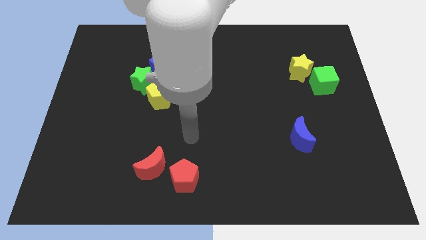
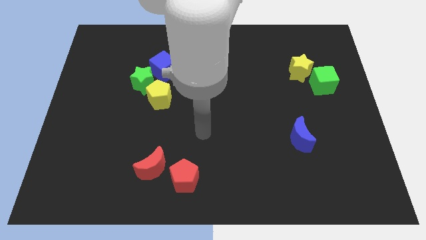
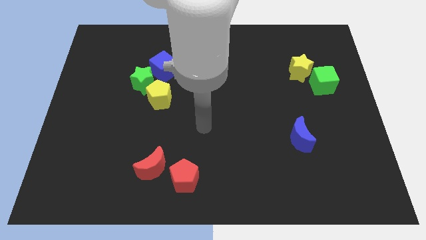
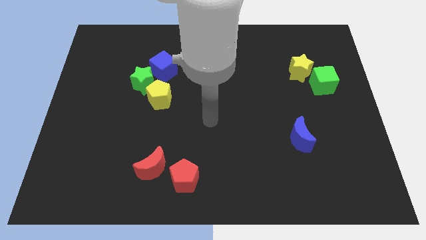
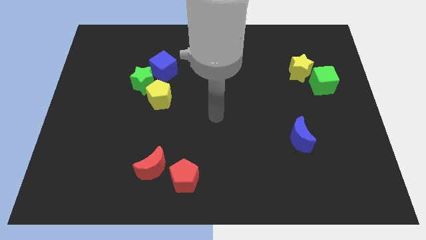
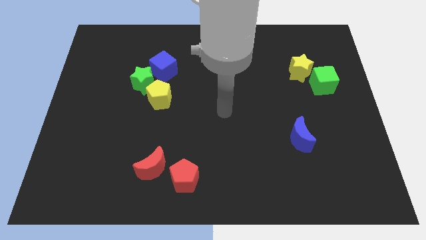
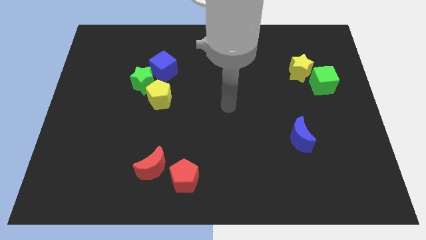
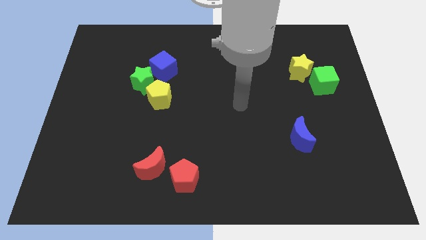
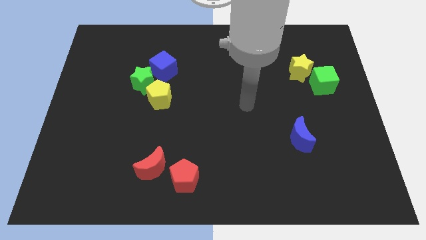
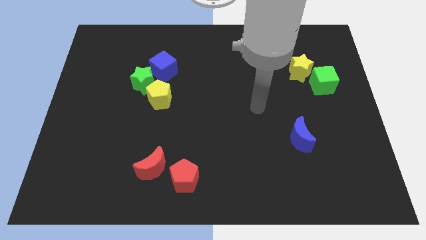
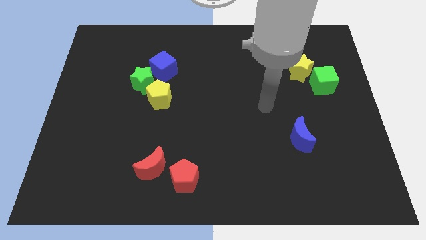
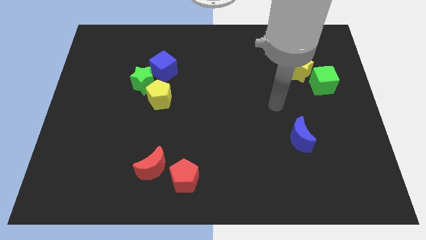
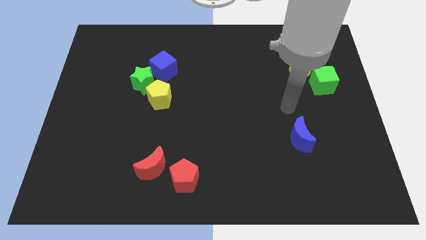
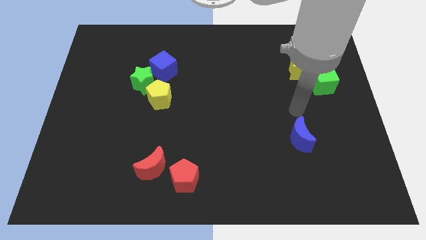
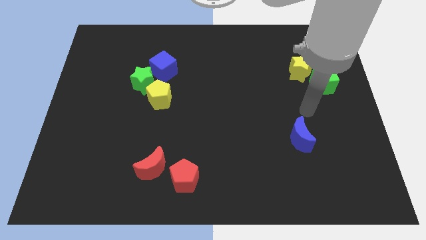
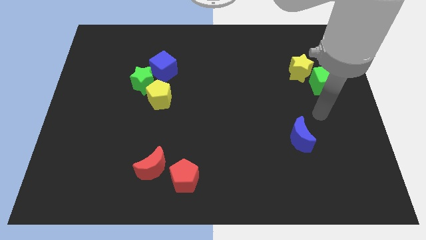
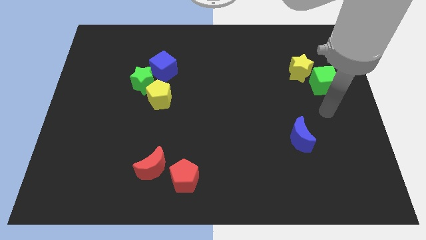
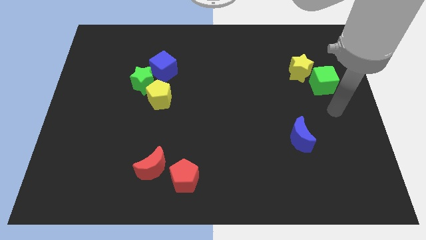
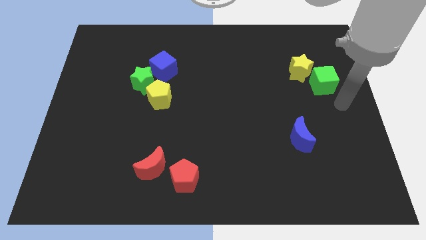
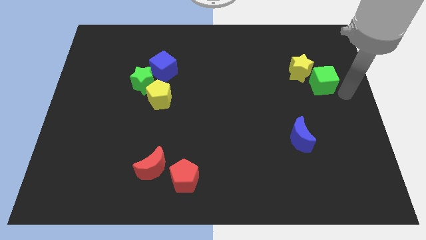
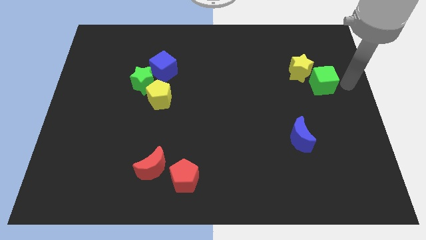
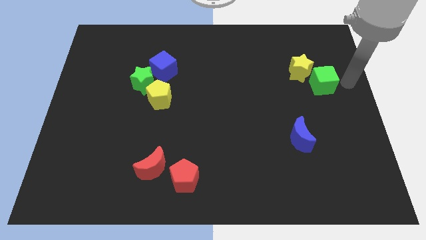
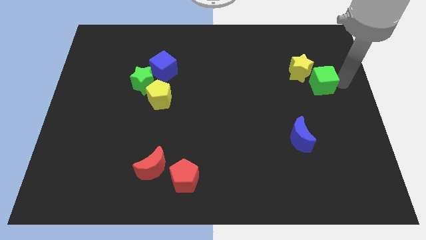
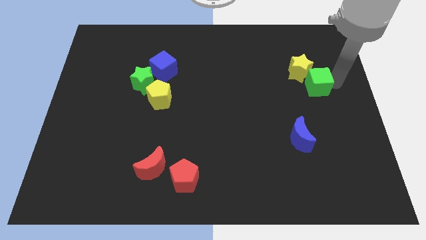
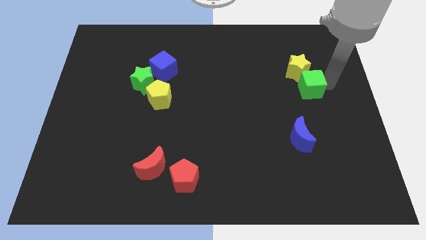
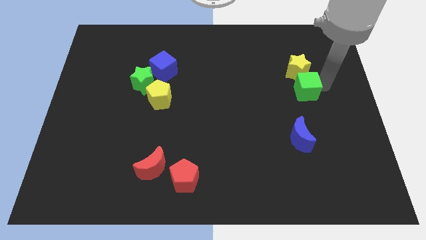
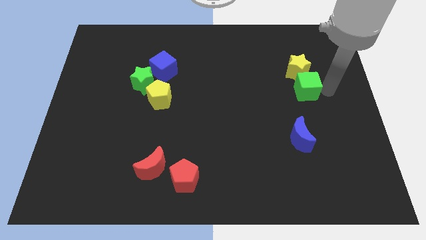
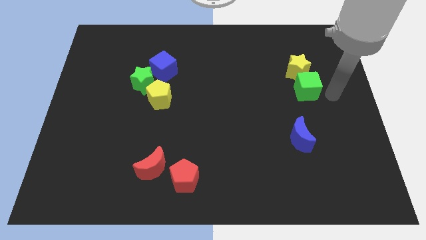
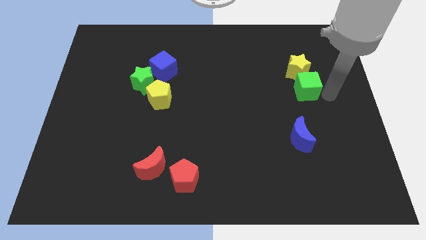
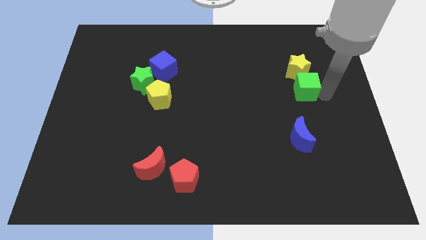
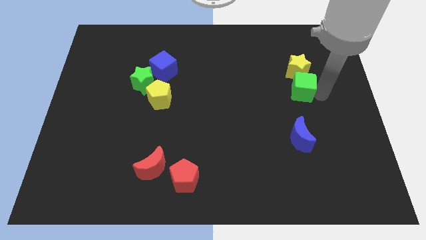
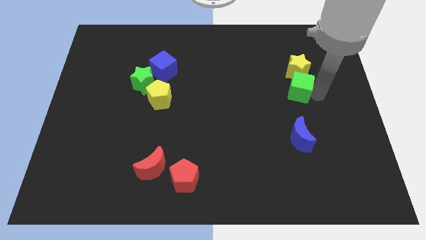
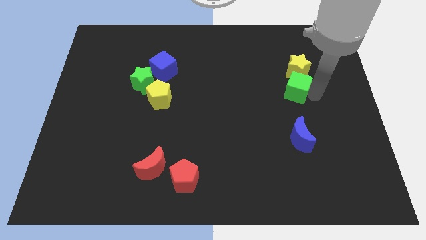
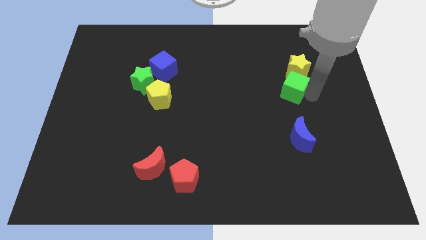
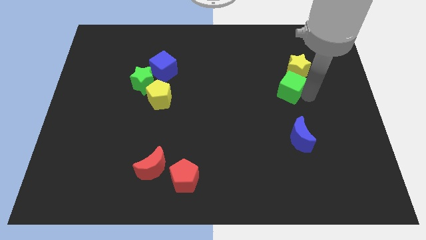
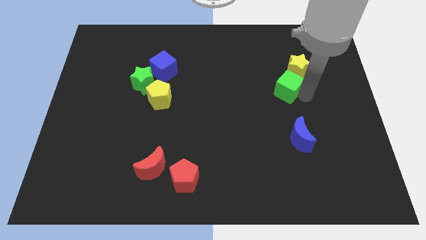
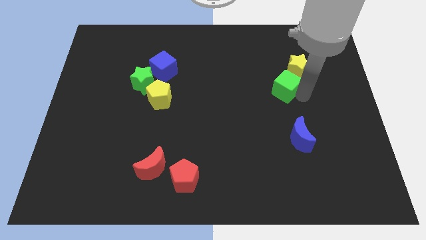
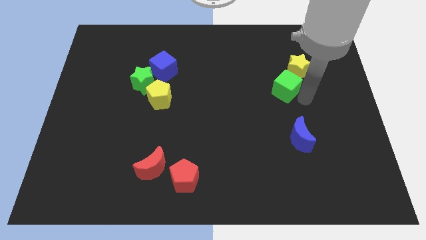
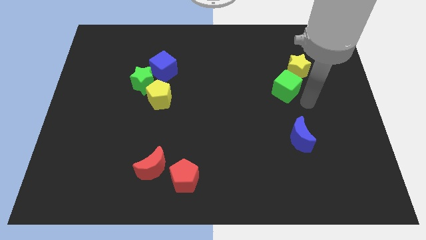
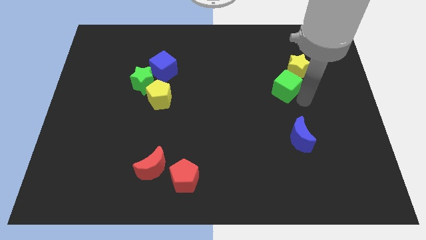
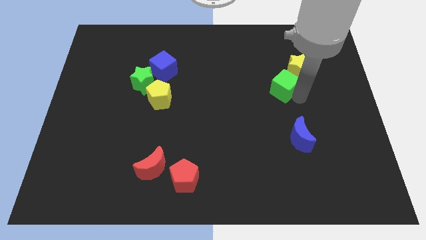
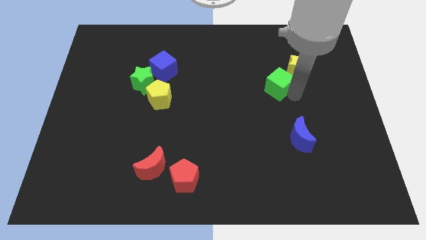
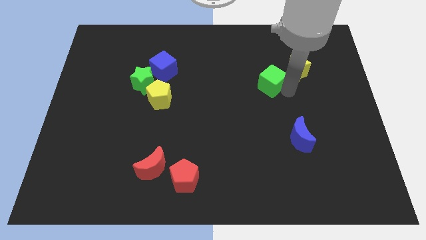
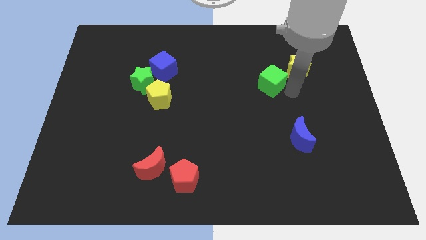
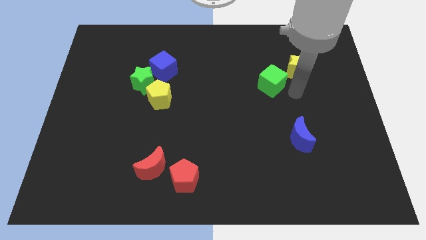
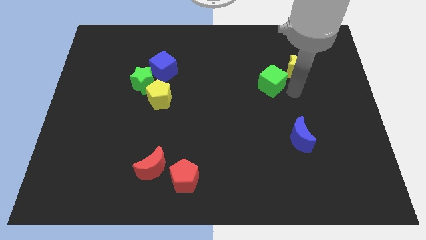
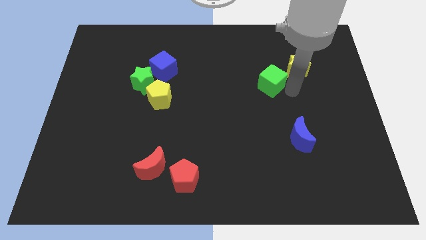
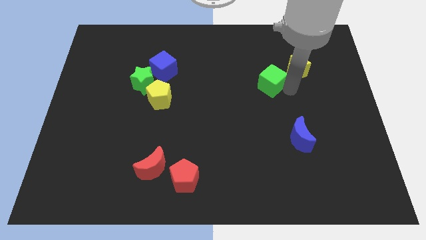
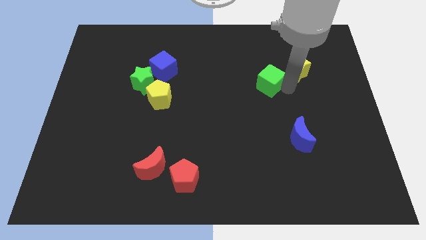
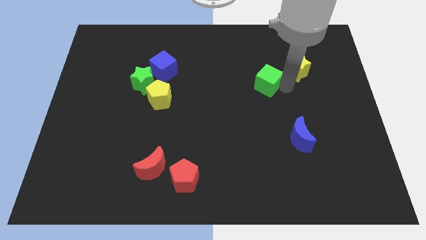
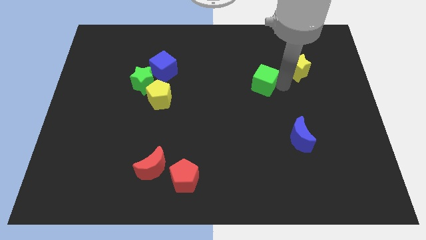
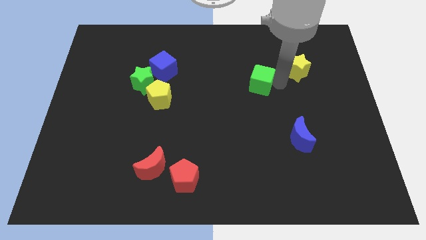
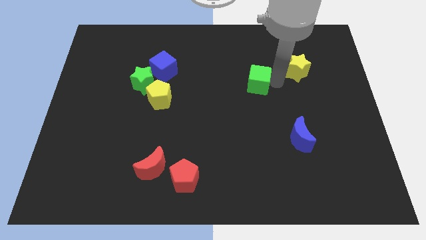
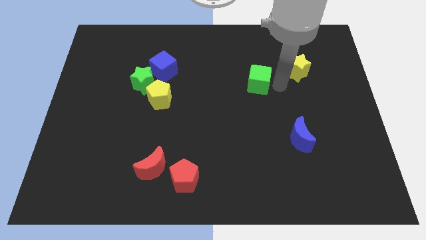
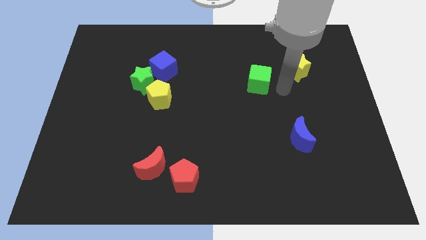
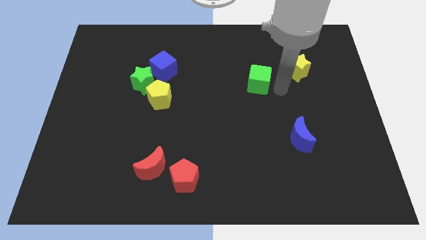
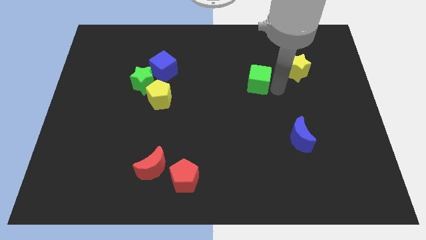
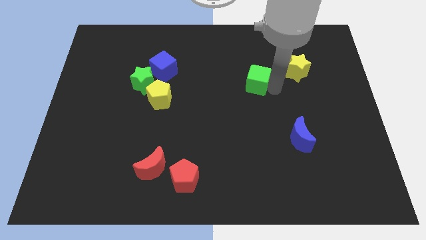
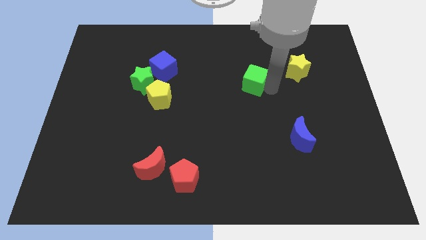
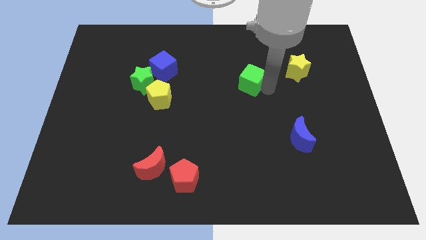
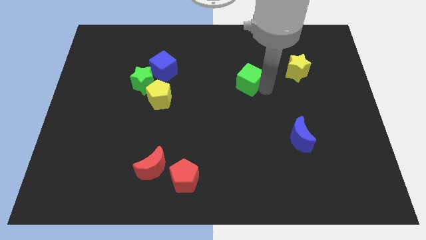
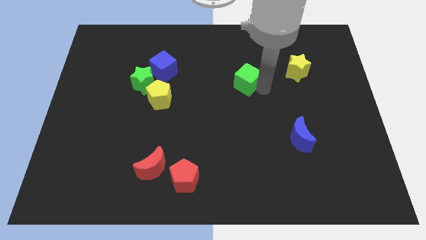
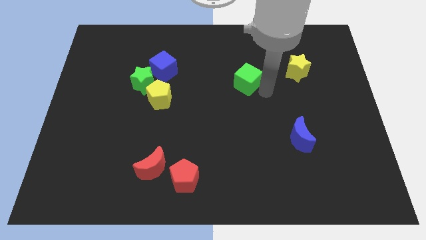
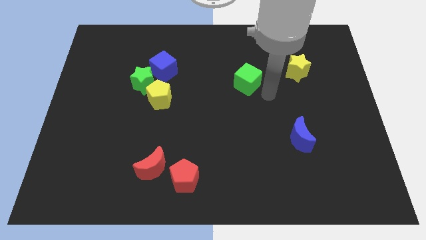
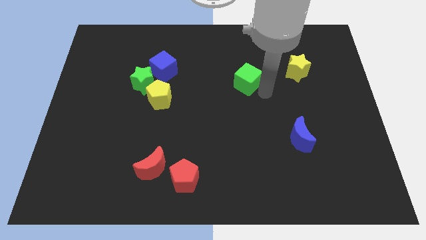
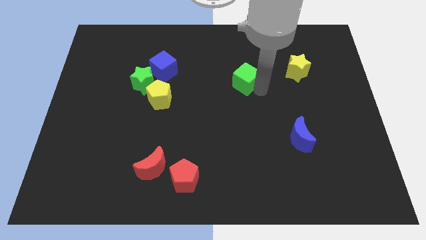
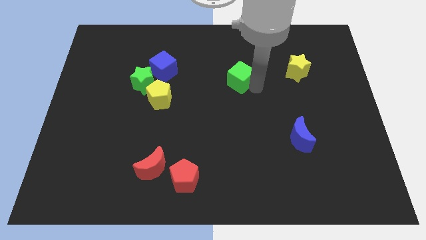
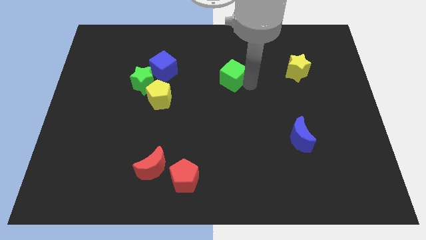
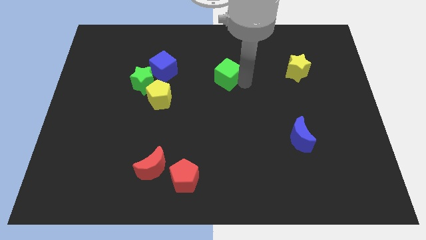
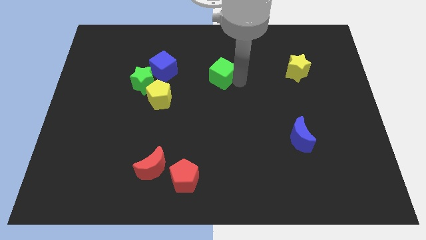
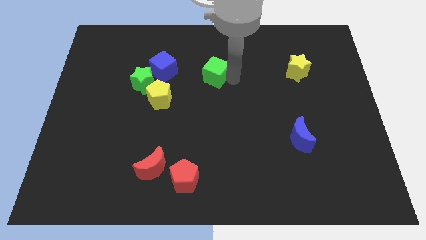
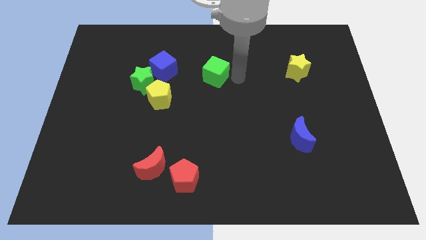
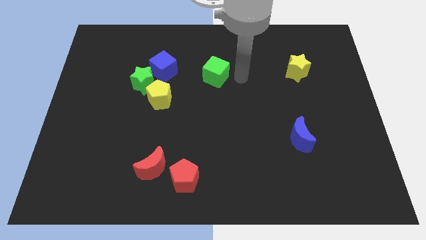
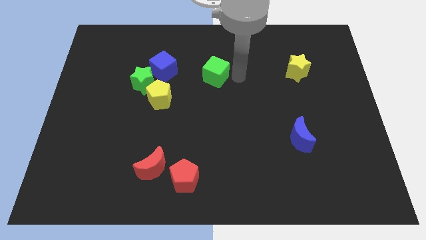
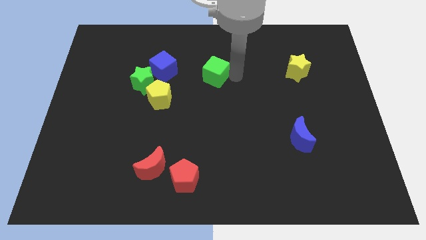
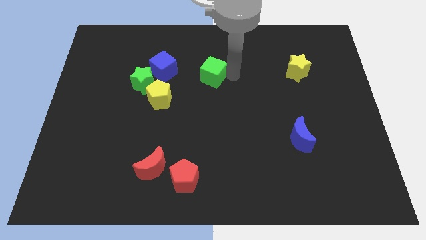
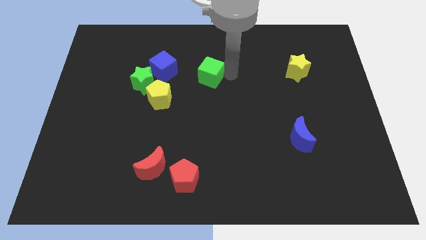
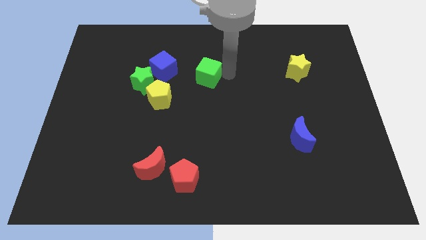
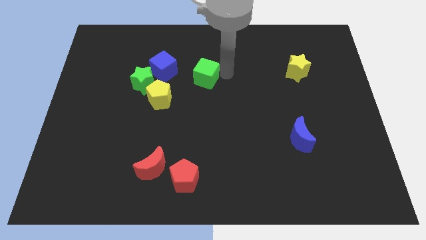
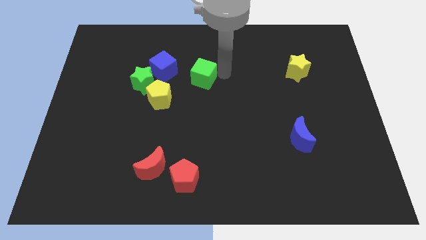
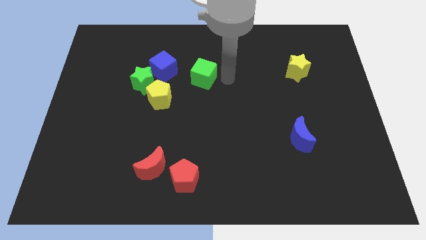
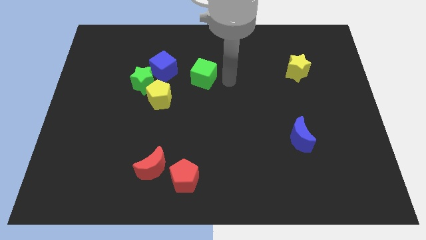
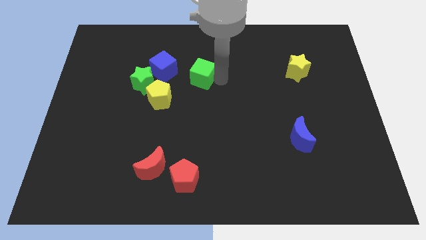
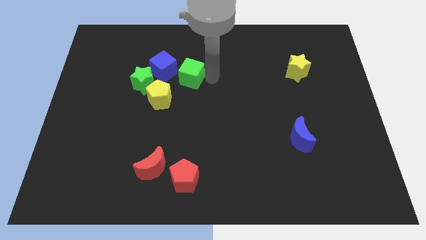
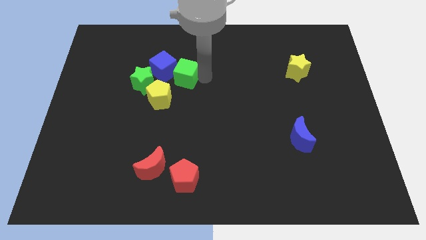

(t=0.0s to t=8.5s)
slide the green cube towards the blue cube

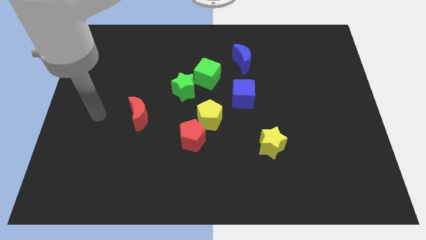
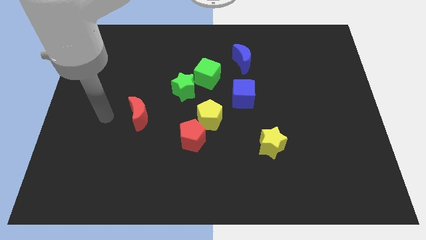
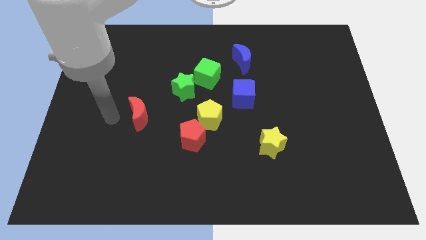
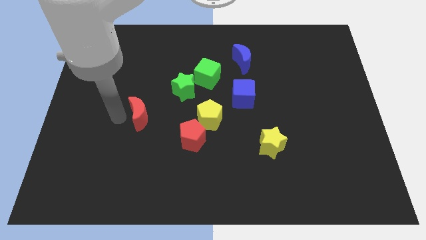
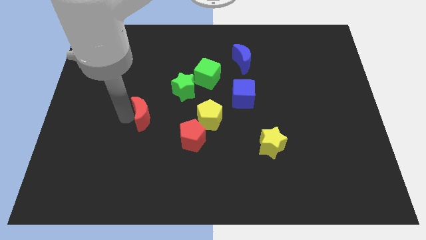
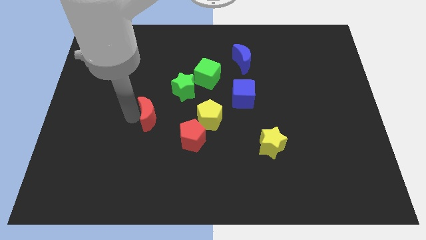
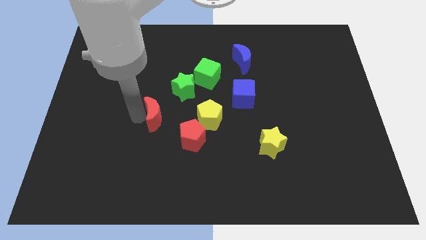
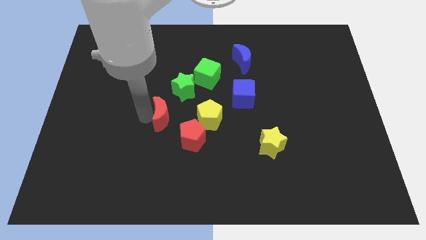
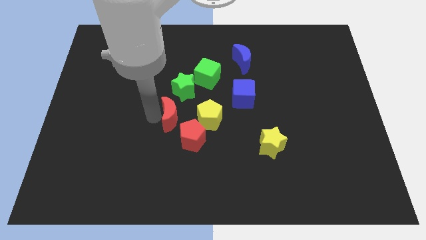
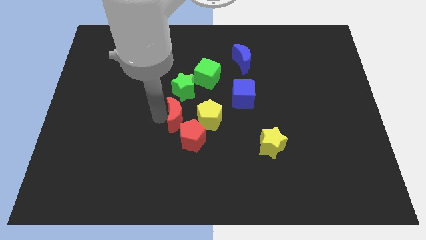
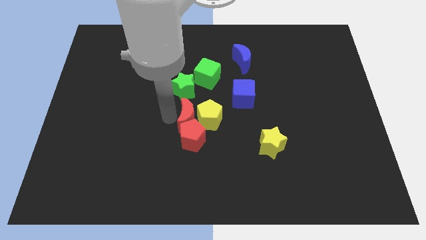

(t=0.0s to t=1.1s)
move the red moon close to the yellow pentagon
